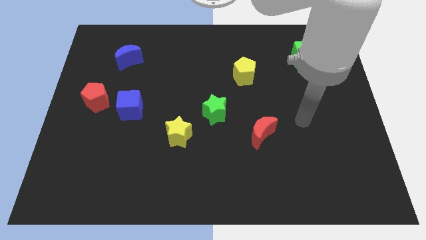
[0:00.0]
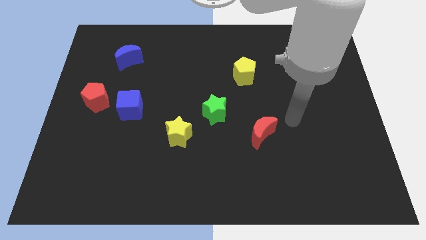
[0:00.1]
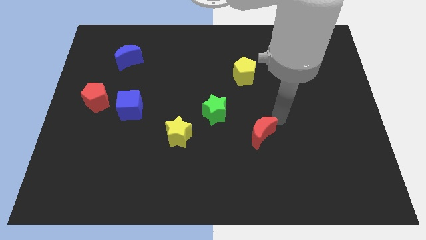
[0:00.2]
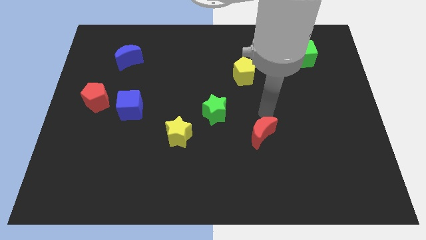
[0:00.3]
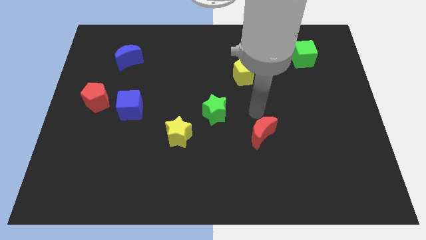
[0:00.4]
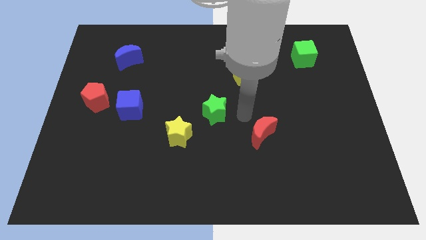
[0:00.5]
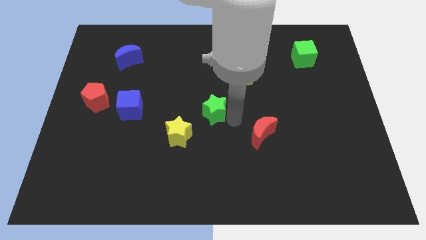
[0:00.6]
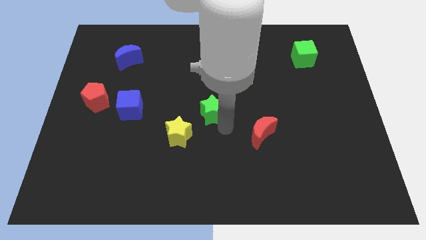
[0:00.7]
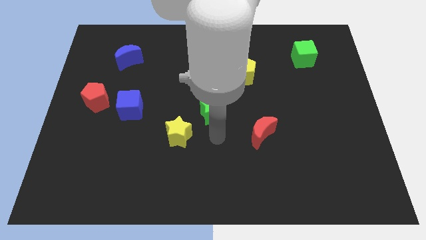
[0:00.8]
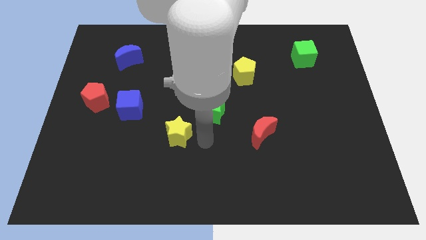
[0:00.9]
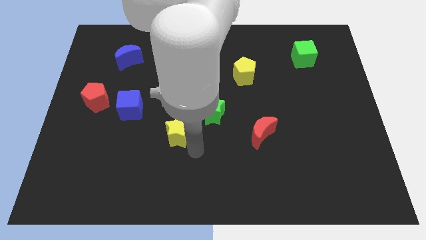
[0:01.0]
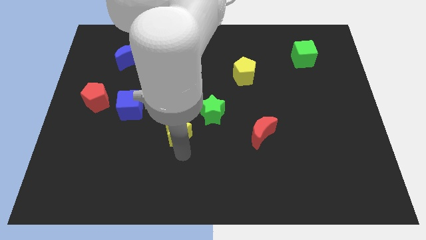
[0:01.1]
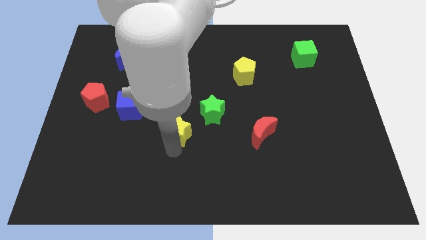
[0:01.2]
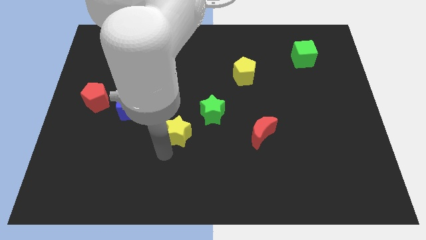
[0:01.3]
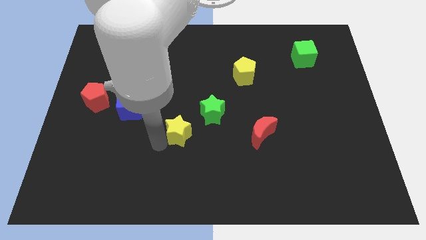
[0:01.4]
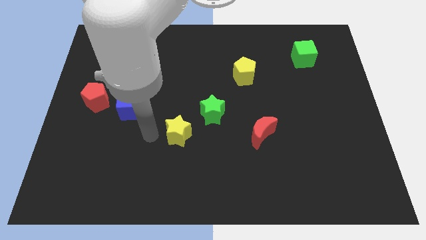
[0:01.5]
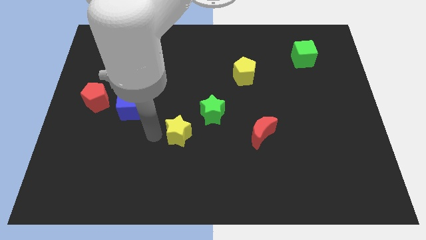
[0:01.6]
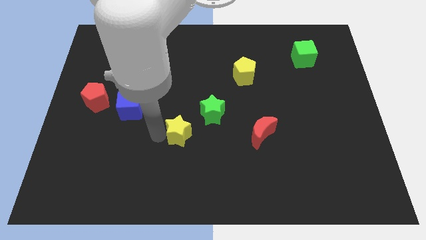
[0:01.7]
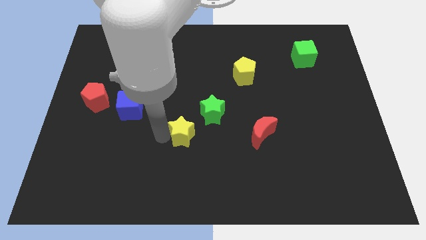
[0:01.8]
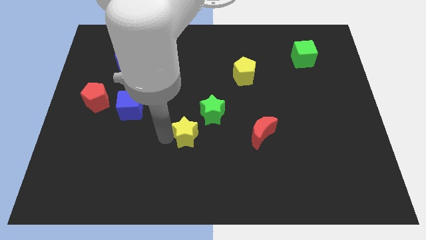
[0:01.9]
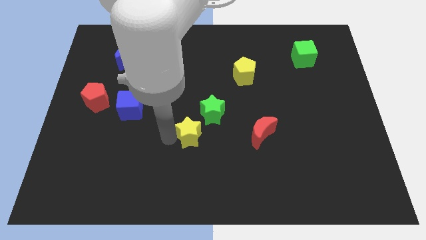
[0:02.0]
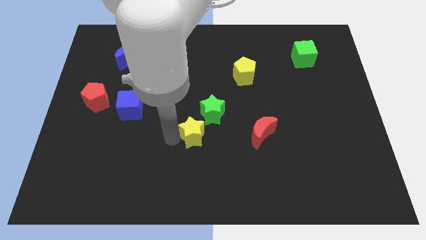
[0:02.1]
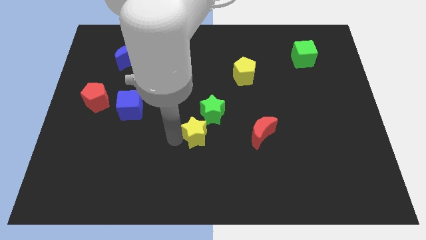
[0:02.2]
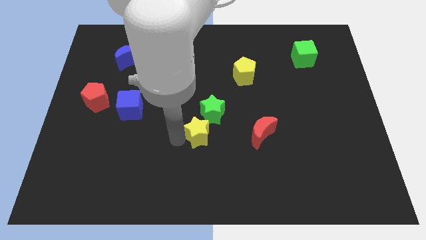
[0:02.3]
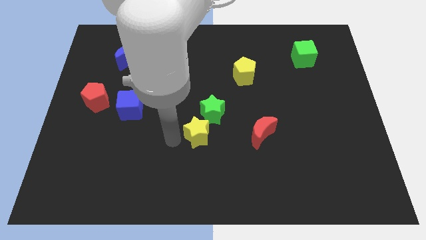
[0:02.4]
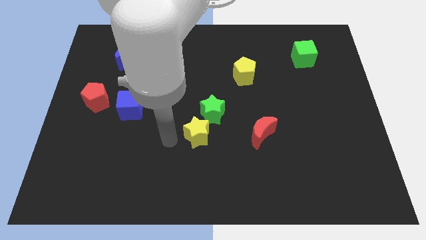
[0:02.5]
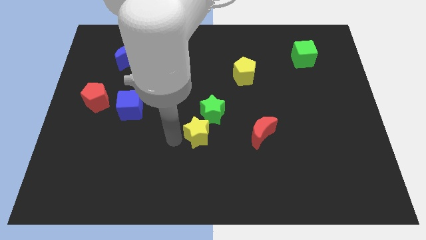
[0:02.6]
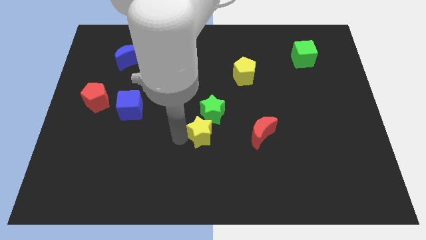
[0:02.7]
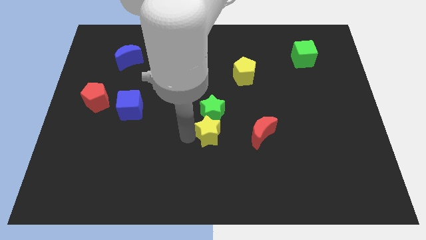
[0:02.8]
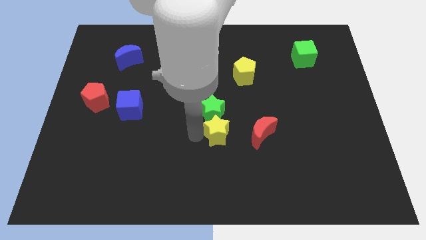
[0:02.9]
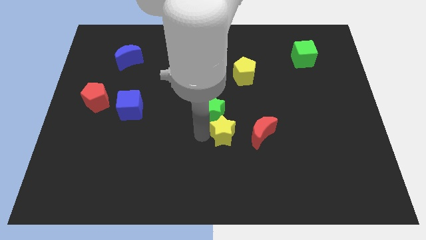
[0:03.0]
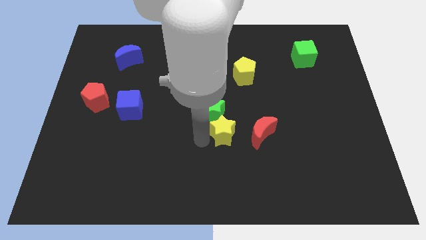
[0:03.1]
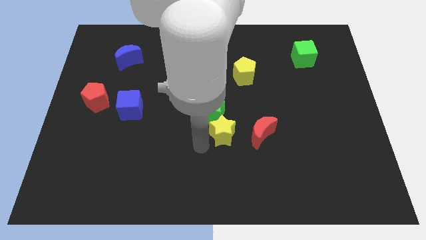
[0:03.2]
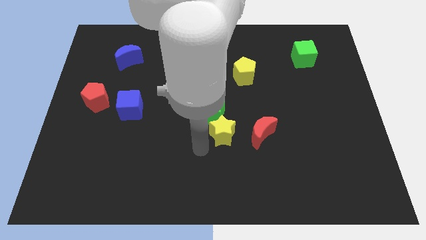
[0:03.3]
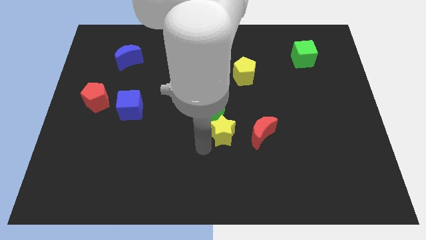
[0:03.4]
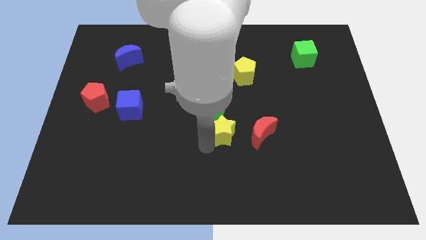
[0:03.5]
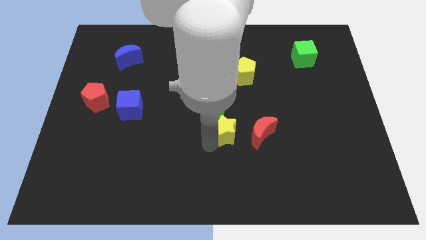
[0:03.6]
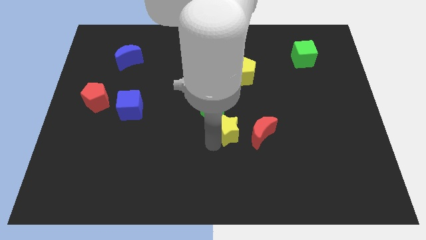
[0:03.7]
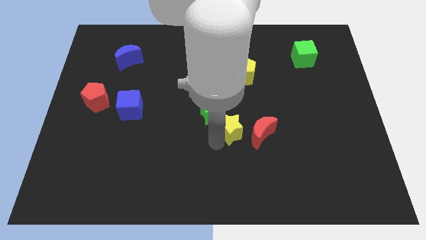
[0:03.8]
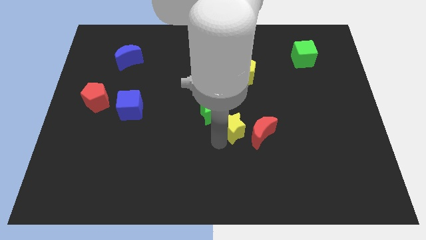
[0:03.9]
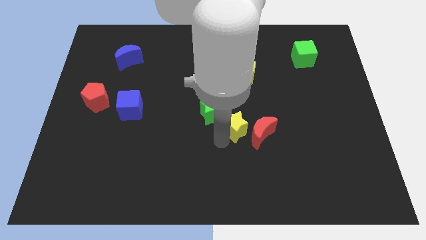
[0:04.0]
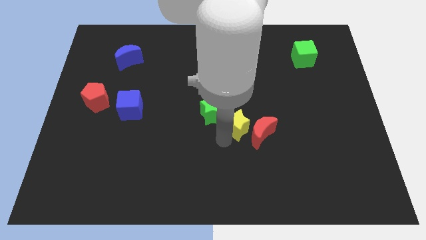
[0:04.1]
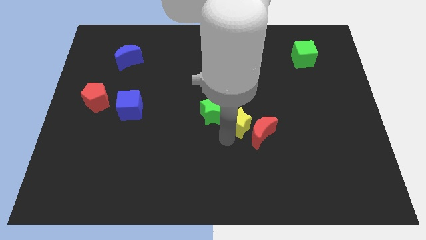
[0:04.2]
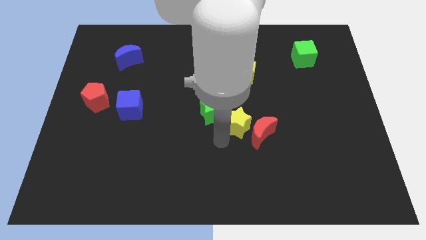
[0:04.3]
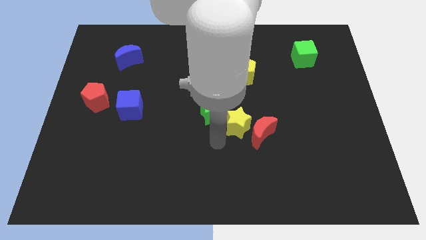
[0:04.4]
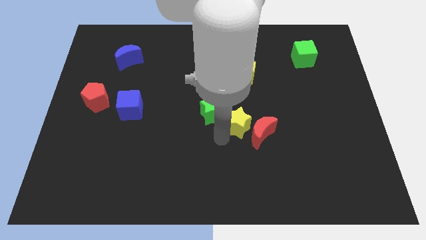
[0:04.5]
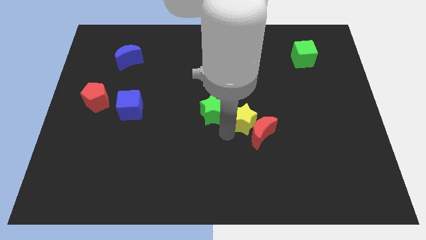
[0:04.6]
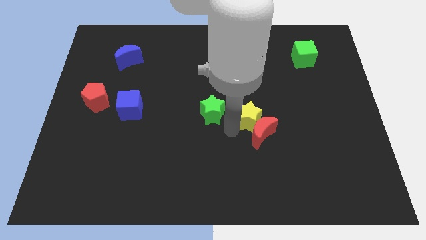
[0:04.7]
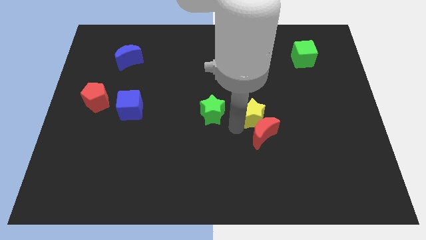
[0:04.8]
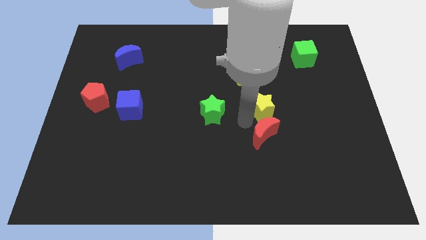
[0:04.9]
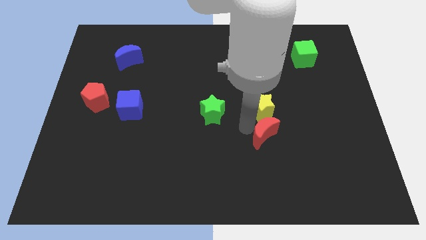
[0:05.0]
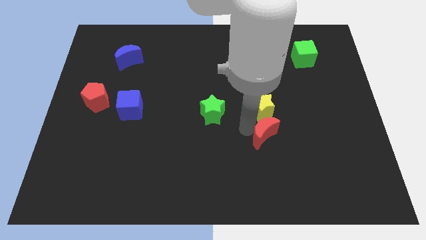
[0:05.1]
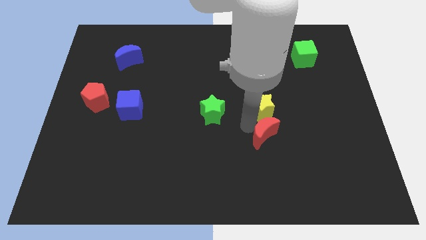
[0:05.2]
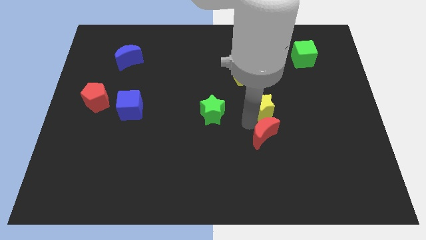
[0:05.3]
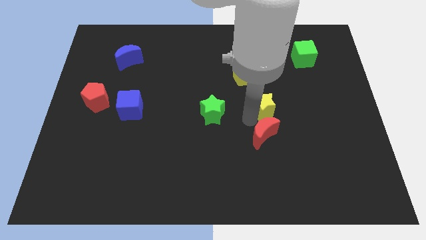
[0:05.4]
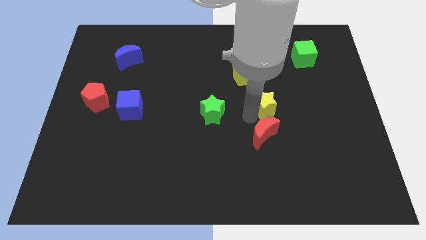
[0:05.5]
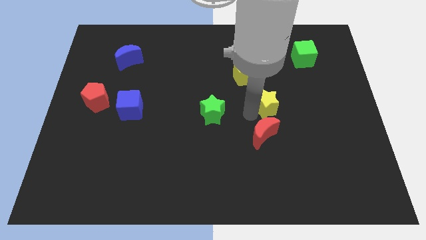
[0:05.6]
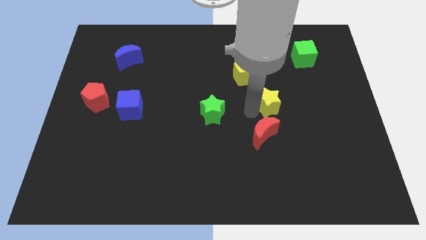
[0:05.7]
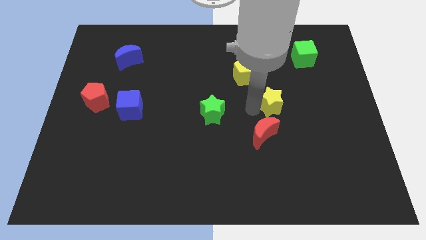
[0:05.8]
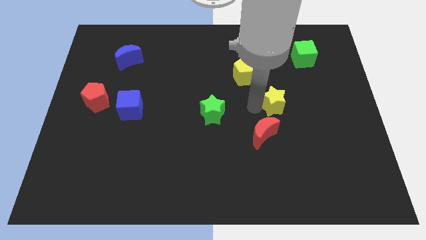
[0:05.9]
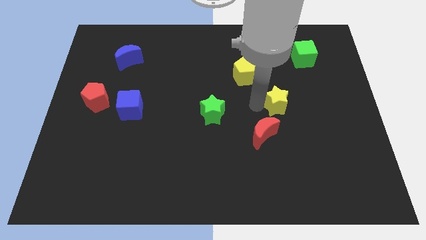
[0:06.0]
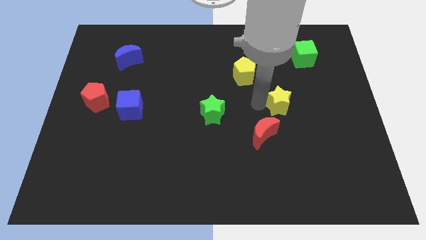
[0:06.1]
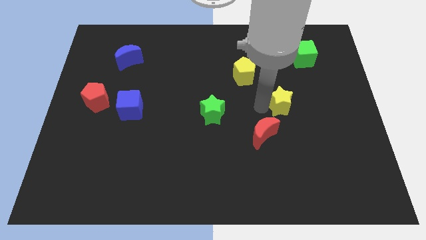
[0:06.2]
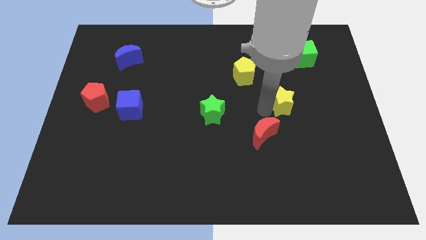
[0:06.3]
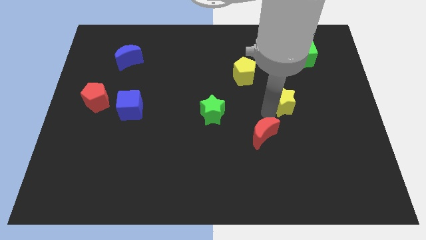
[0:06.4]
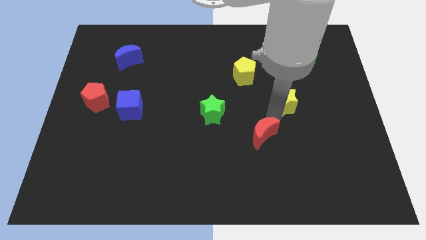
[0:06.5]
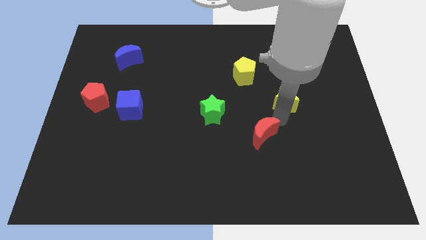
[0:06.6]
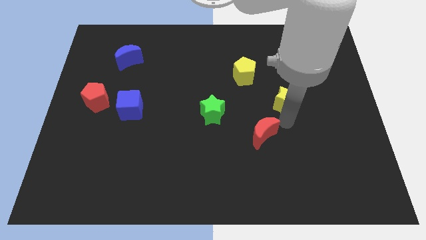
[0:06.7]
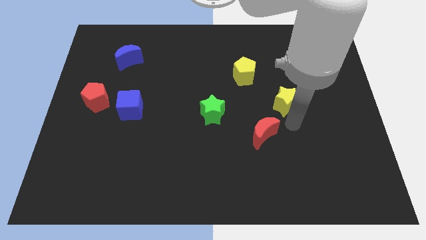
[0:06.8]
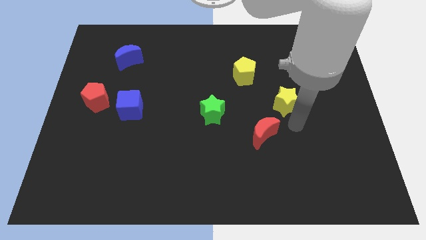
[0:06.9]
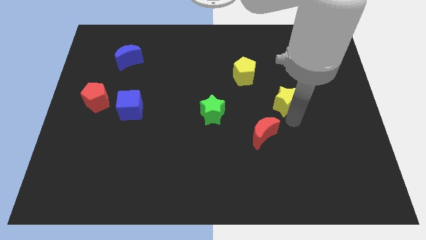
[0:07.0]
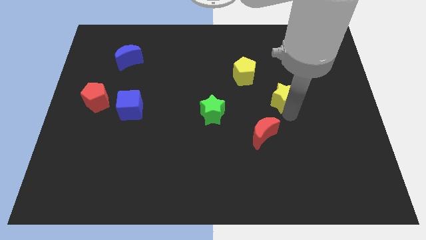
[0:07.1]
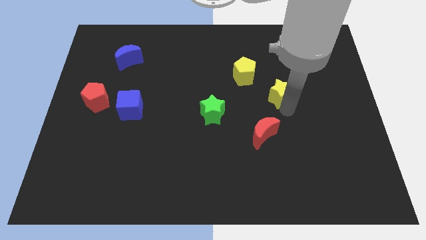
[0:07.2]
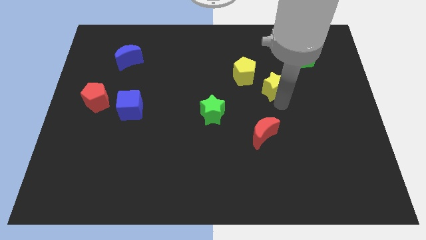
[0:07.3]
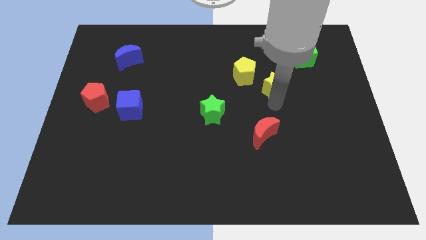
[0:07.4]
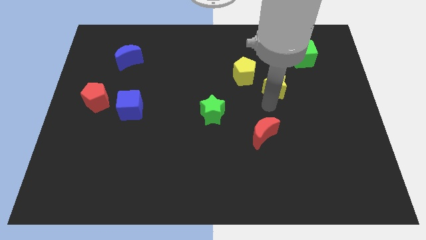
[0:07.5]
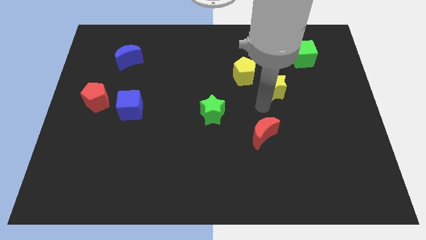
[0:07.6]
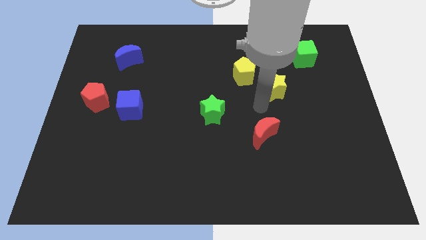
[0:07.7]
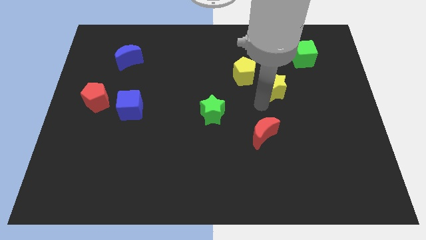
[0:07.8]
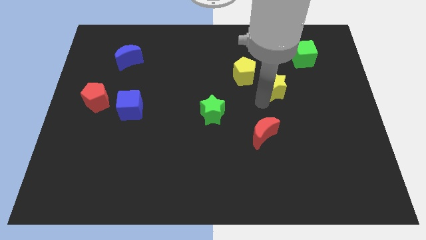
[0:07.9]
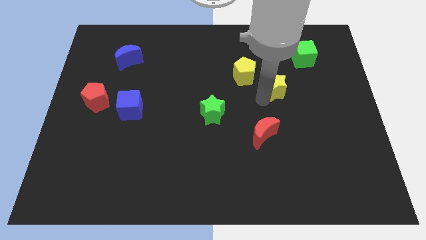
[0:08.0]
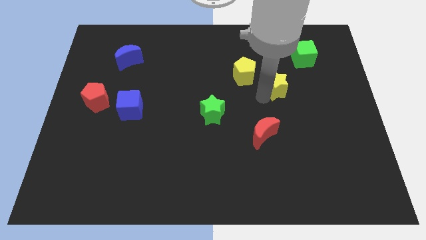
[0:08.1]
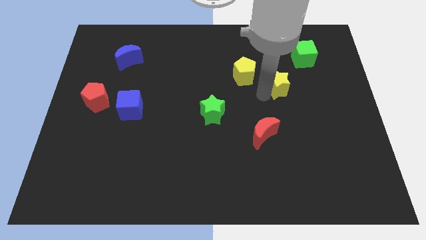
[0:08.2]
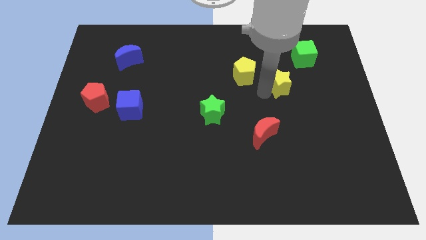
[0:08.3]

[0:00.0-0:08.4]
put the yellow star to the bottom left side of the green cube
